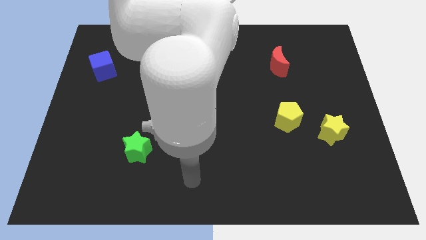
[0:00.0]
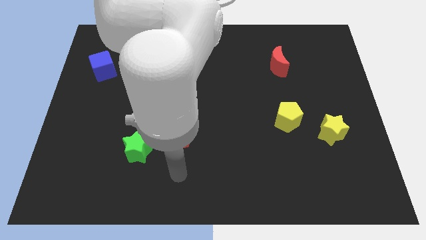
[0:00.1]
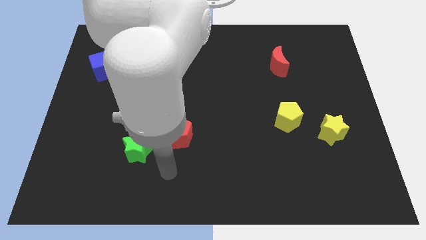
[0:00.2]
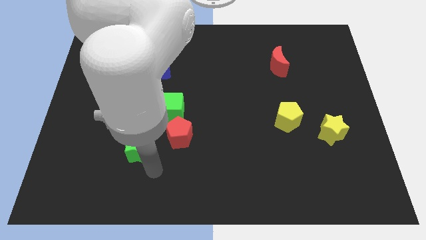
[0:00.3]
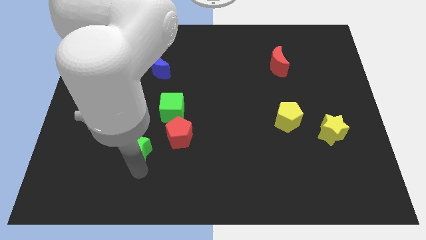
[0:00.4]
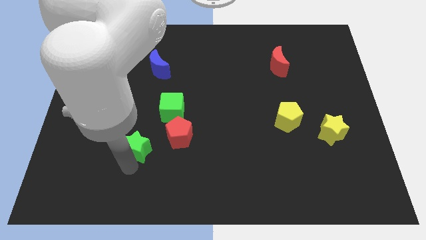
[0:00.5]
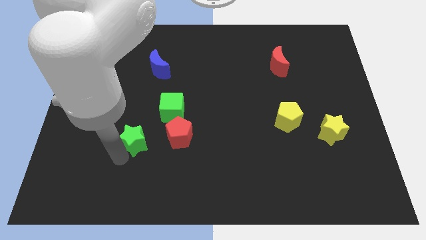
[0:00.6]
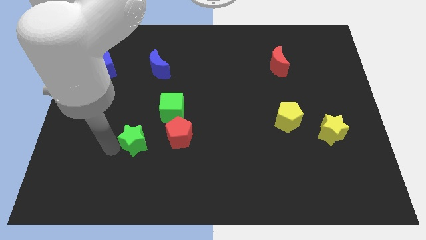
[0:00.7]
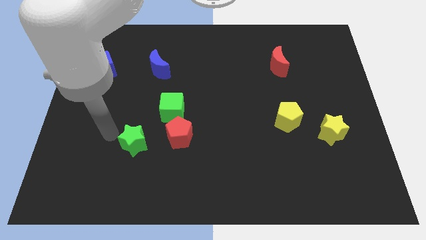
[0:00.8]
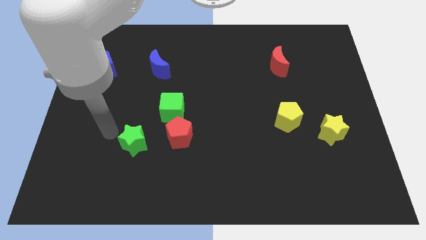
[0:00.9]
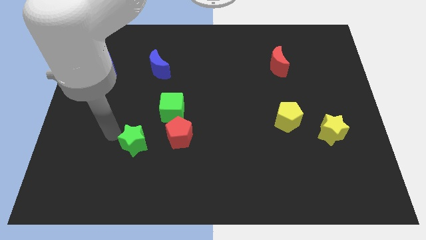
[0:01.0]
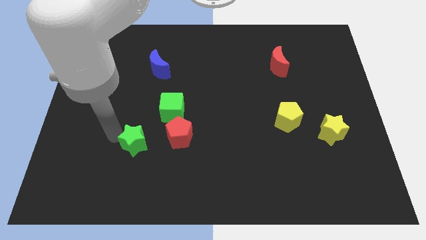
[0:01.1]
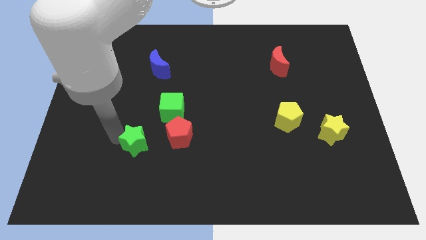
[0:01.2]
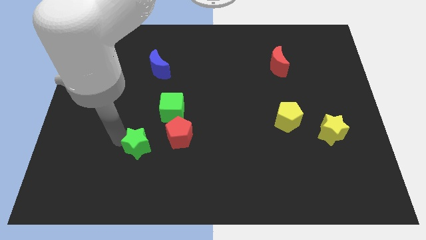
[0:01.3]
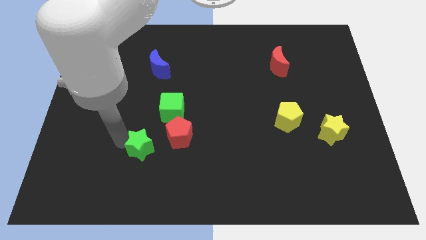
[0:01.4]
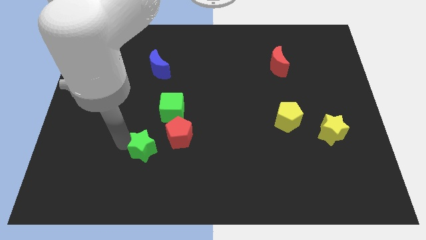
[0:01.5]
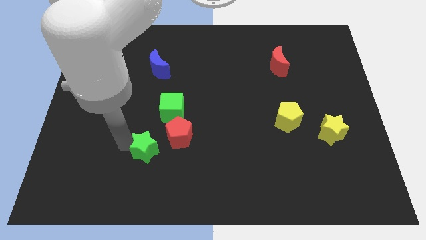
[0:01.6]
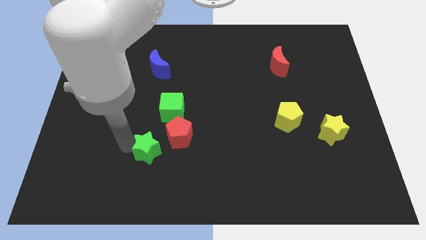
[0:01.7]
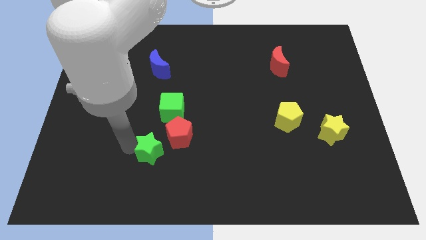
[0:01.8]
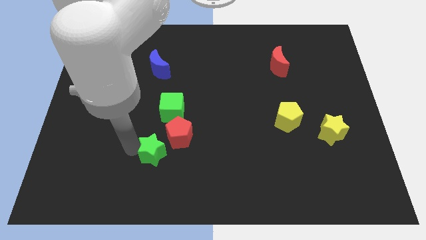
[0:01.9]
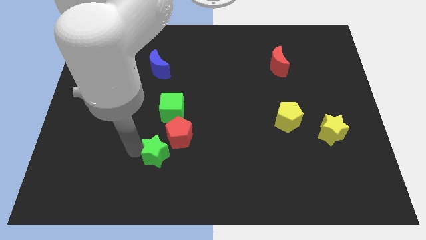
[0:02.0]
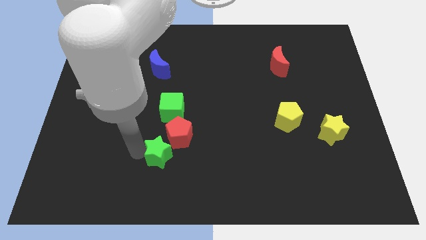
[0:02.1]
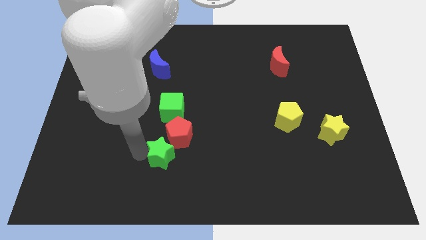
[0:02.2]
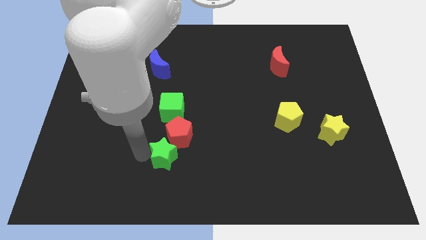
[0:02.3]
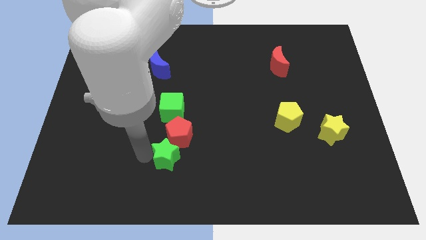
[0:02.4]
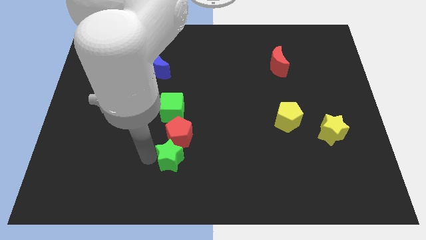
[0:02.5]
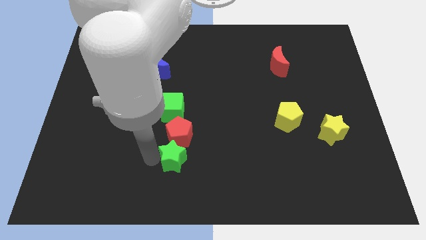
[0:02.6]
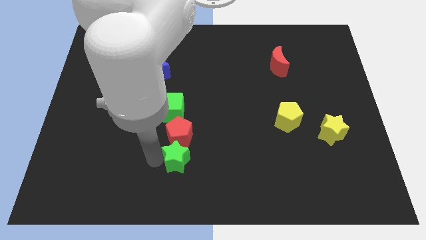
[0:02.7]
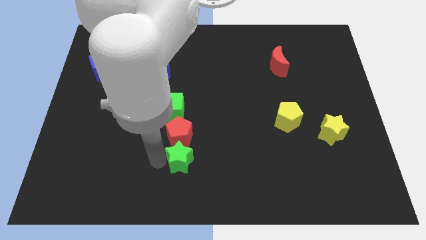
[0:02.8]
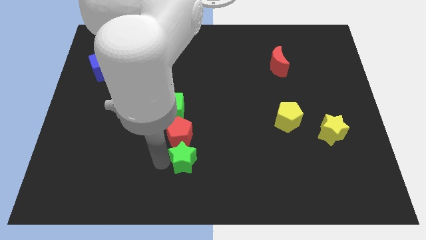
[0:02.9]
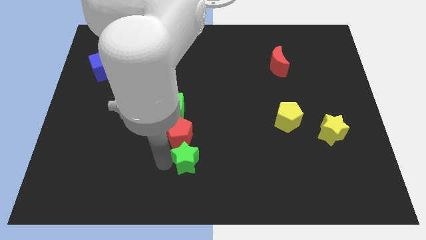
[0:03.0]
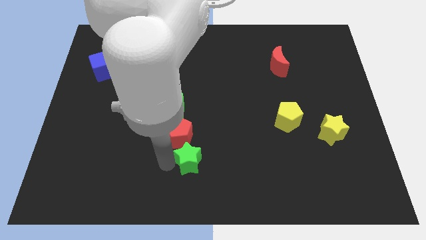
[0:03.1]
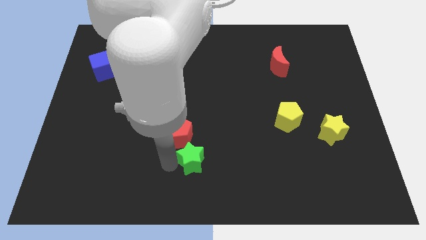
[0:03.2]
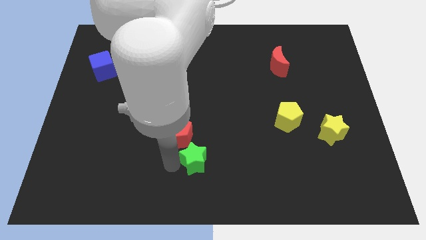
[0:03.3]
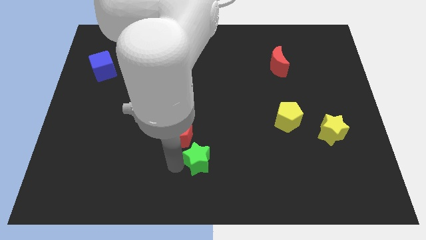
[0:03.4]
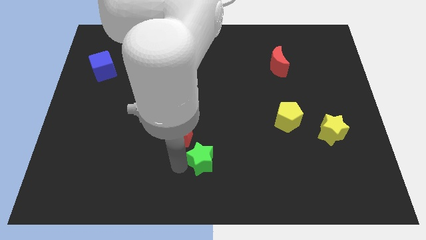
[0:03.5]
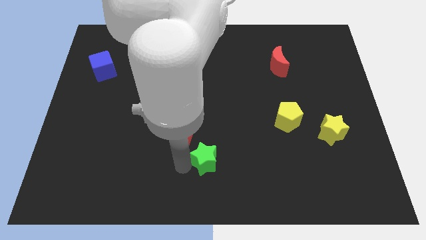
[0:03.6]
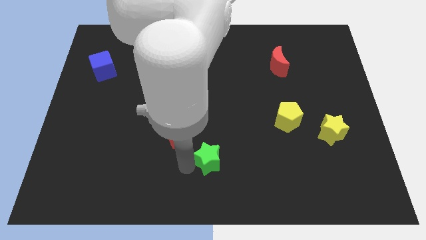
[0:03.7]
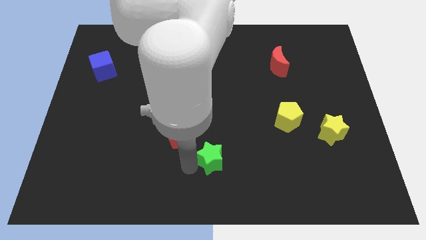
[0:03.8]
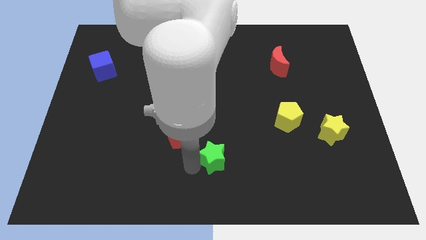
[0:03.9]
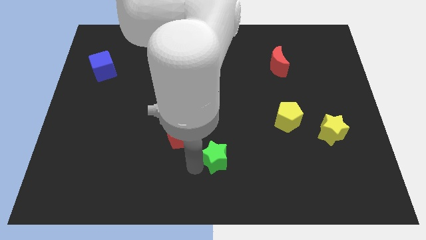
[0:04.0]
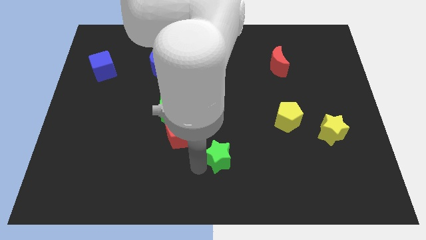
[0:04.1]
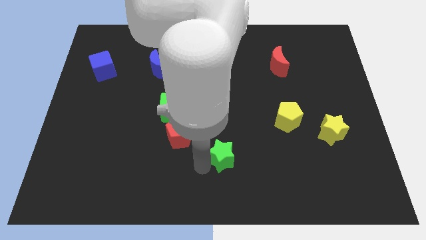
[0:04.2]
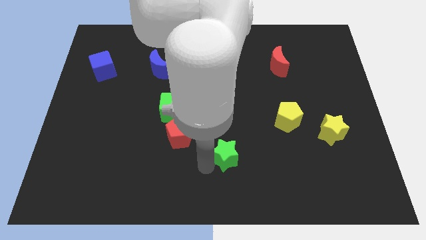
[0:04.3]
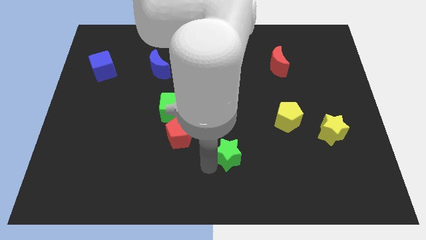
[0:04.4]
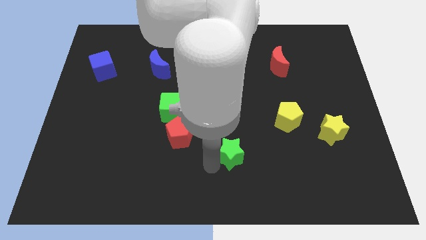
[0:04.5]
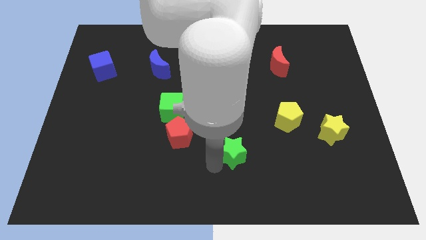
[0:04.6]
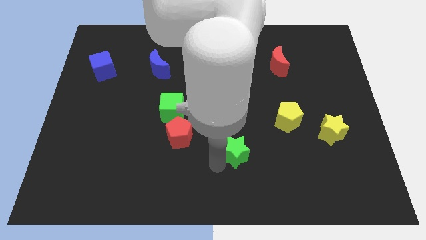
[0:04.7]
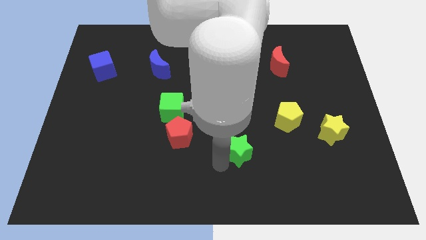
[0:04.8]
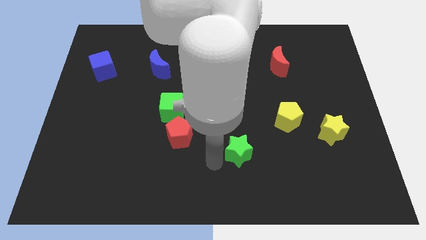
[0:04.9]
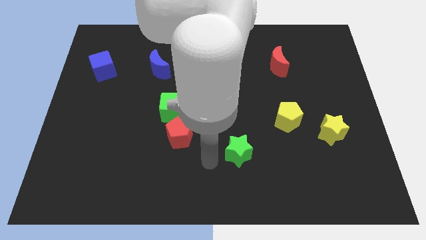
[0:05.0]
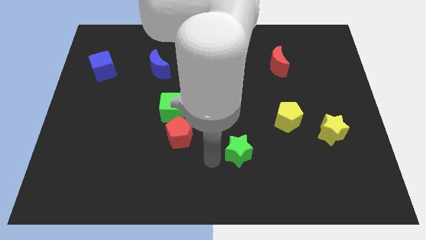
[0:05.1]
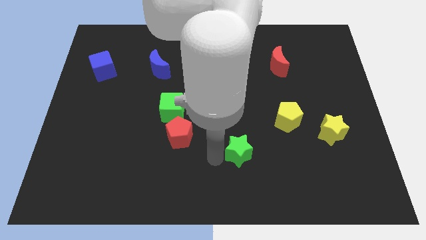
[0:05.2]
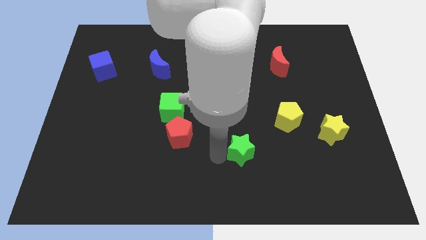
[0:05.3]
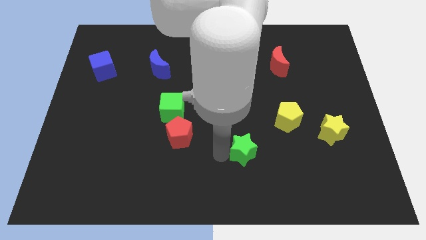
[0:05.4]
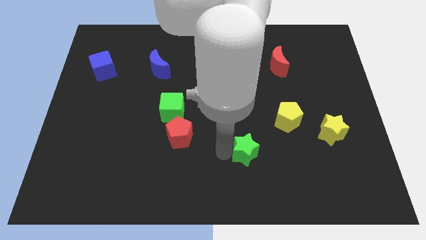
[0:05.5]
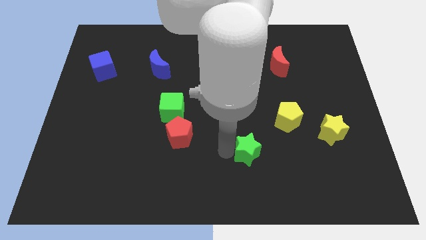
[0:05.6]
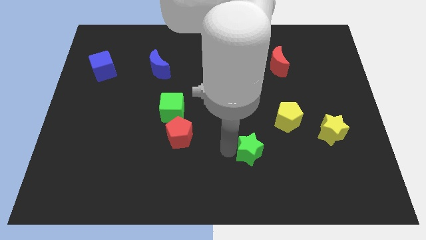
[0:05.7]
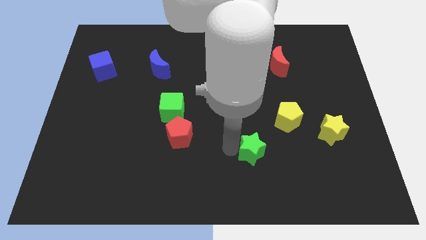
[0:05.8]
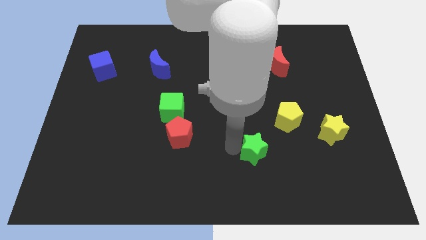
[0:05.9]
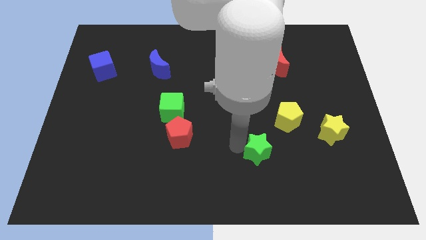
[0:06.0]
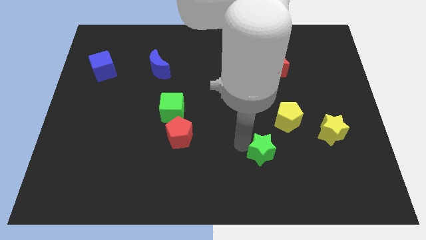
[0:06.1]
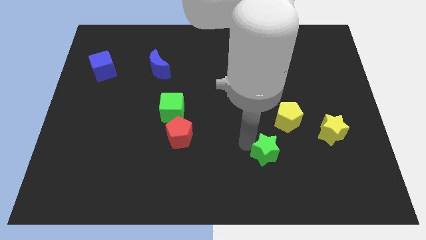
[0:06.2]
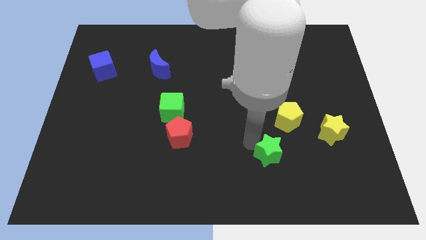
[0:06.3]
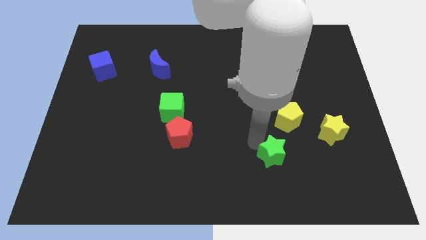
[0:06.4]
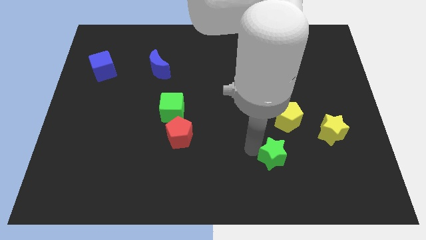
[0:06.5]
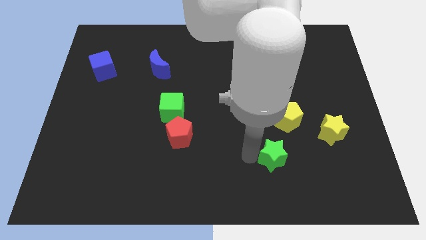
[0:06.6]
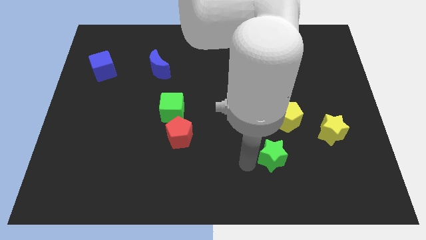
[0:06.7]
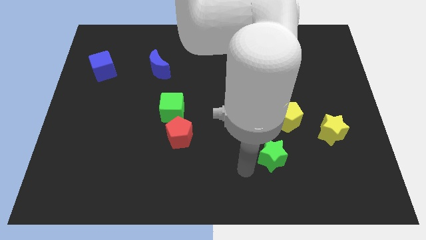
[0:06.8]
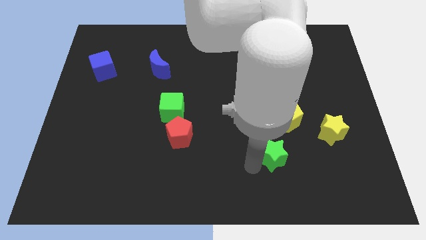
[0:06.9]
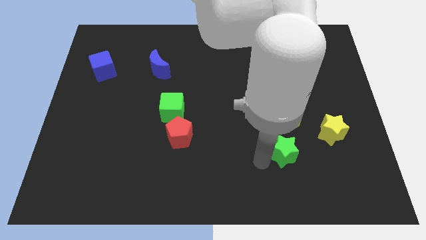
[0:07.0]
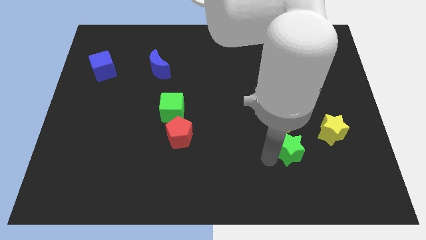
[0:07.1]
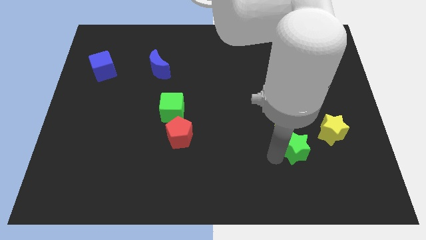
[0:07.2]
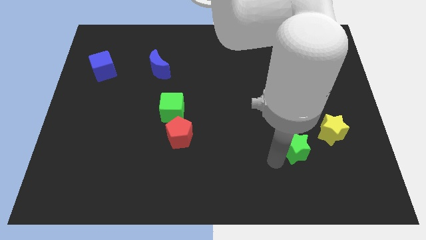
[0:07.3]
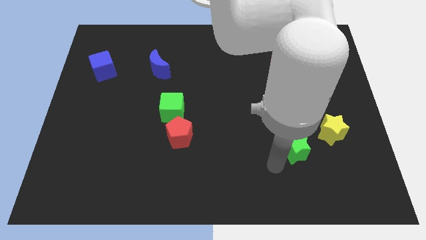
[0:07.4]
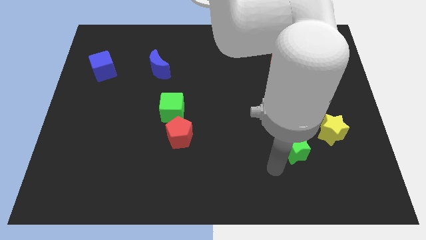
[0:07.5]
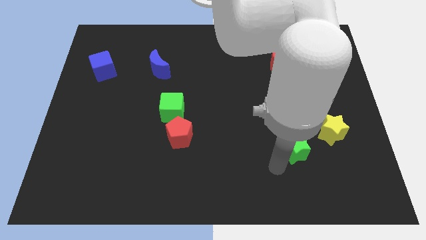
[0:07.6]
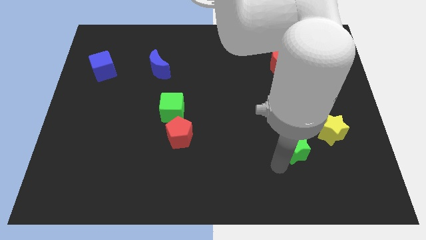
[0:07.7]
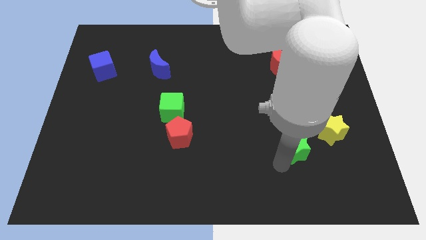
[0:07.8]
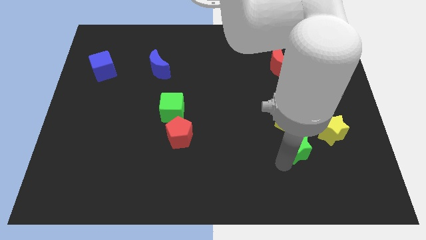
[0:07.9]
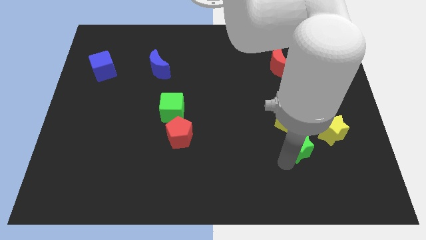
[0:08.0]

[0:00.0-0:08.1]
slide the green star to the bottom right of the yellow pentagon

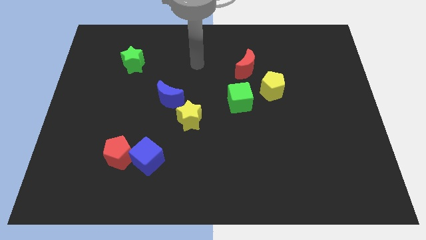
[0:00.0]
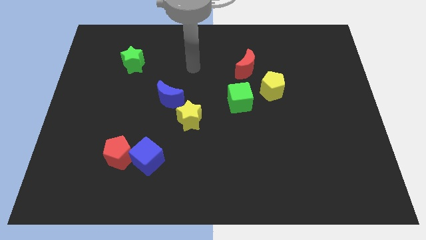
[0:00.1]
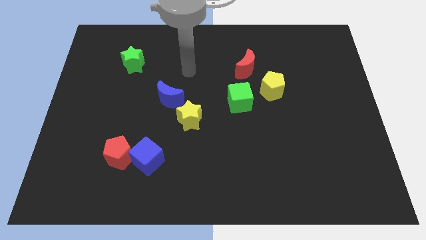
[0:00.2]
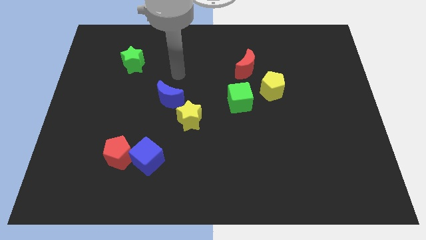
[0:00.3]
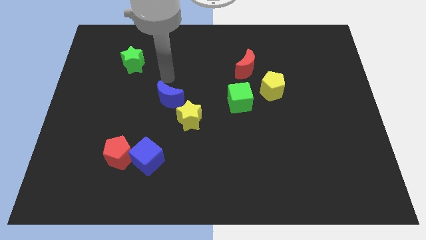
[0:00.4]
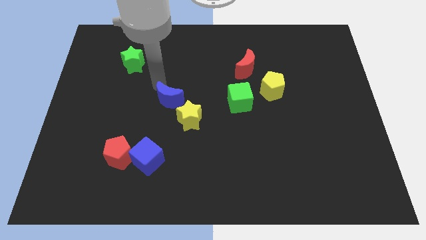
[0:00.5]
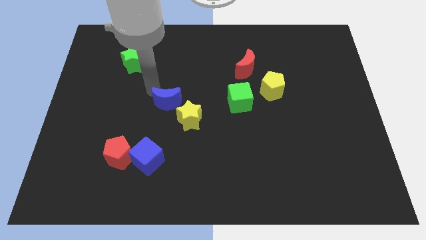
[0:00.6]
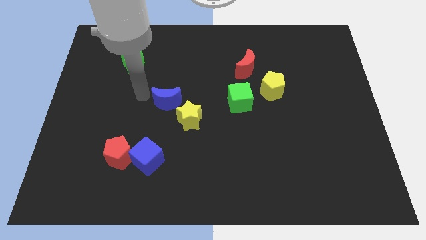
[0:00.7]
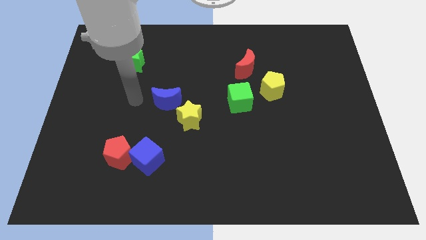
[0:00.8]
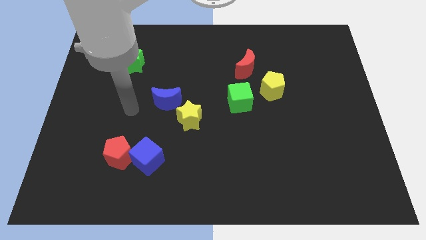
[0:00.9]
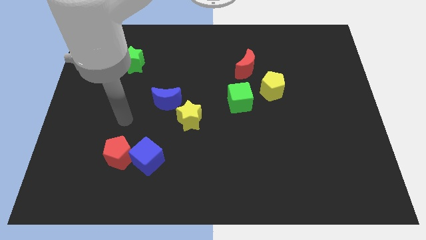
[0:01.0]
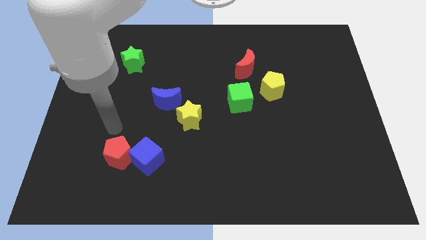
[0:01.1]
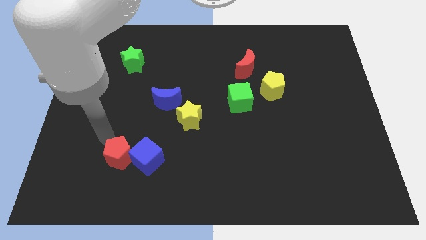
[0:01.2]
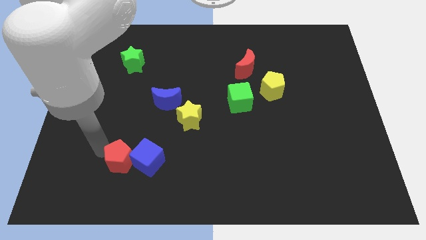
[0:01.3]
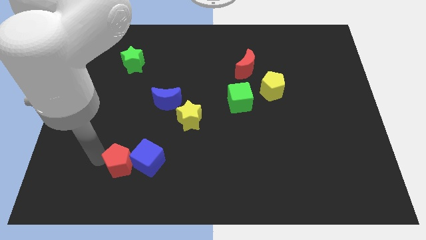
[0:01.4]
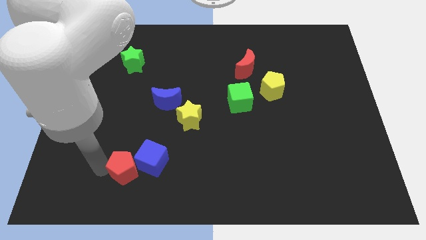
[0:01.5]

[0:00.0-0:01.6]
slide the blue cube to the bottom left side of the yellow star
